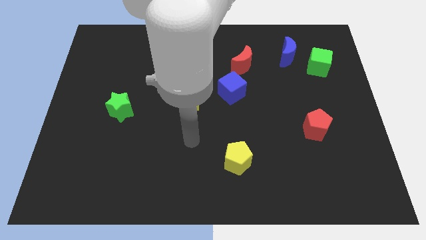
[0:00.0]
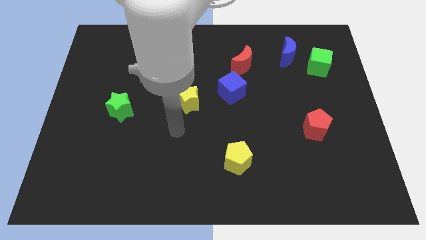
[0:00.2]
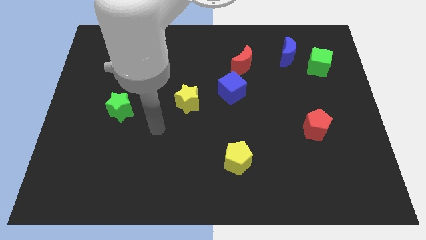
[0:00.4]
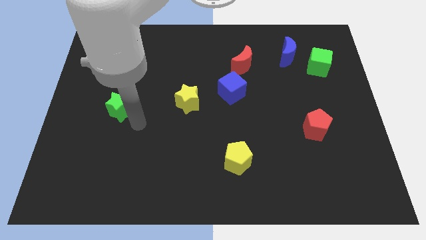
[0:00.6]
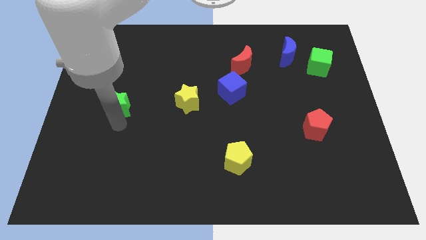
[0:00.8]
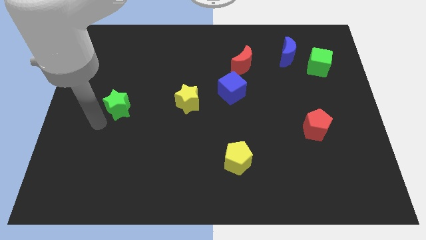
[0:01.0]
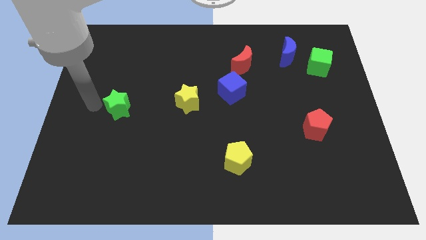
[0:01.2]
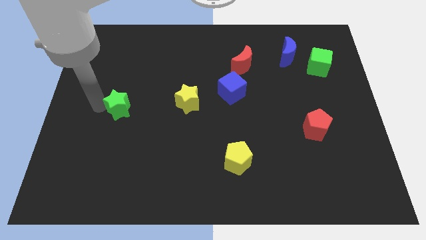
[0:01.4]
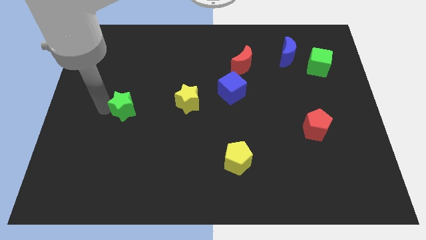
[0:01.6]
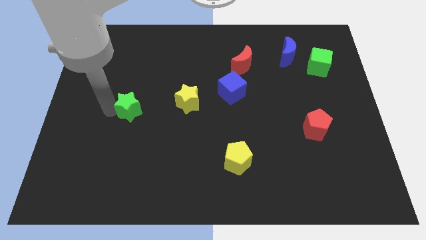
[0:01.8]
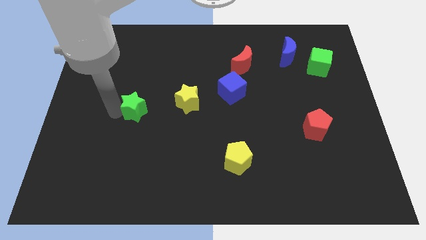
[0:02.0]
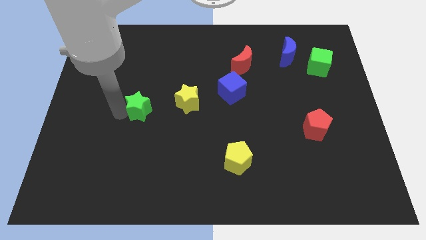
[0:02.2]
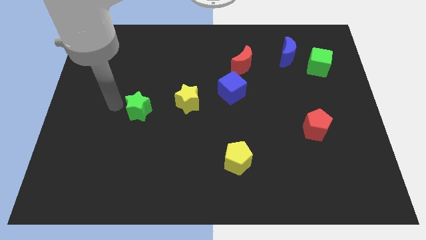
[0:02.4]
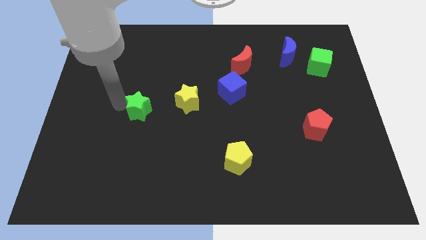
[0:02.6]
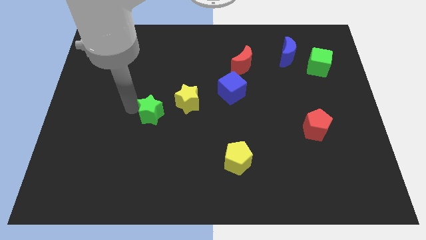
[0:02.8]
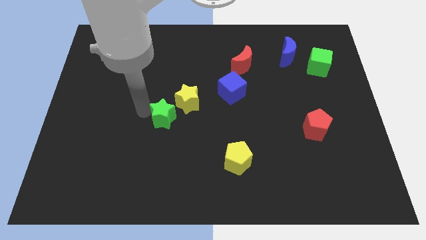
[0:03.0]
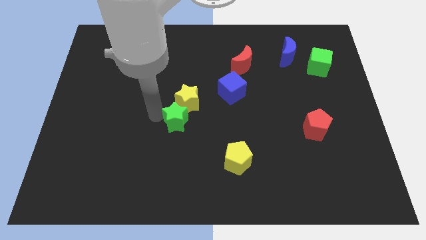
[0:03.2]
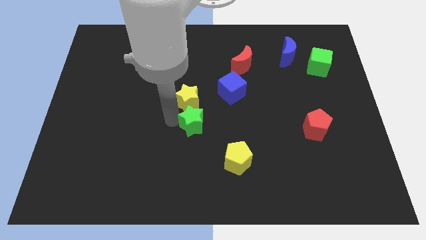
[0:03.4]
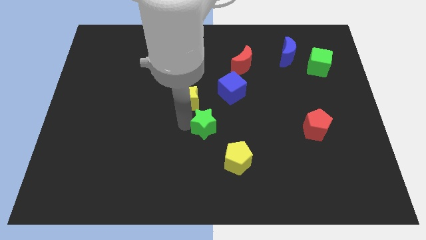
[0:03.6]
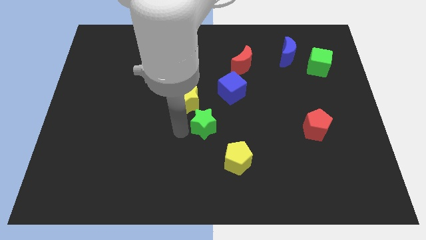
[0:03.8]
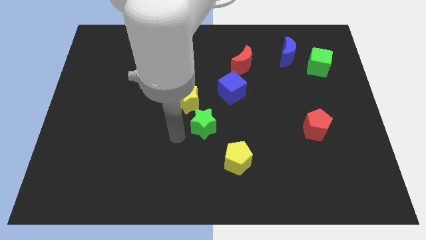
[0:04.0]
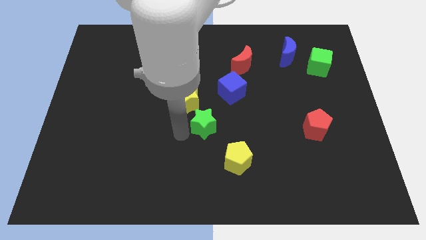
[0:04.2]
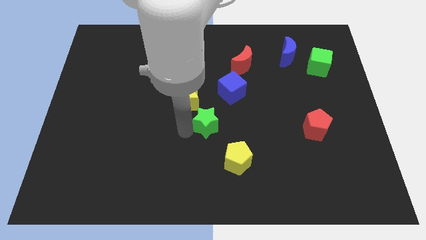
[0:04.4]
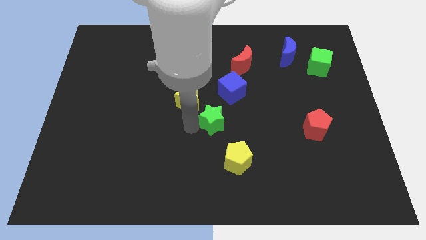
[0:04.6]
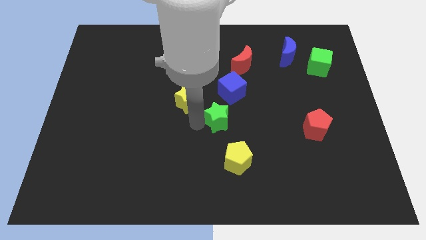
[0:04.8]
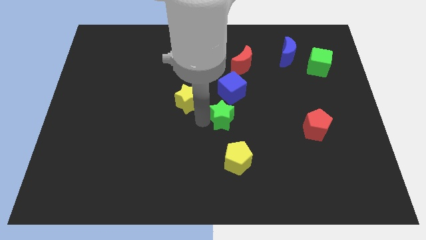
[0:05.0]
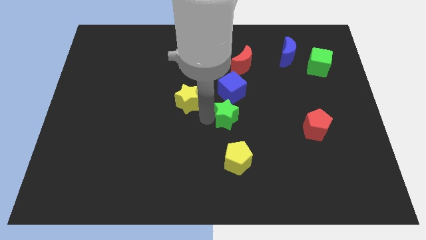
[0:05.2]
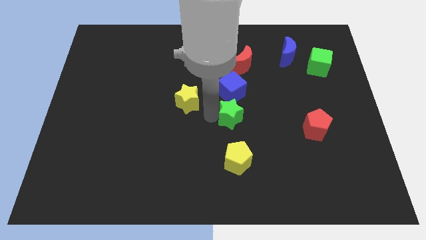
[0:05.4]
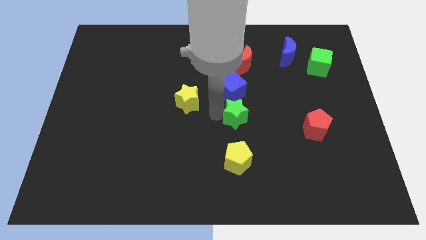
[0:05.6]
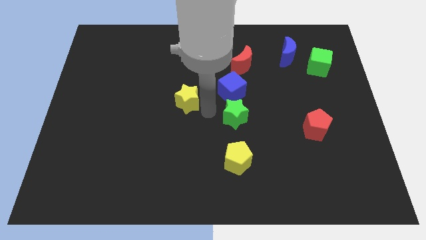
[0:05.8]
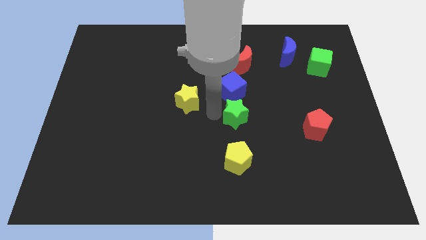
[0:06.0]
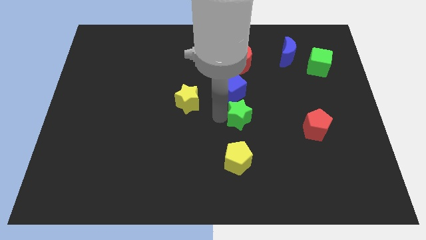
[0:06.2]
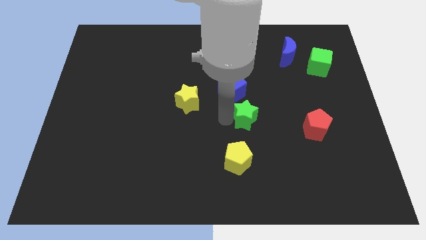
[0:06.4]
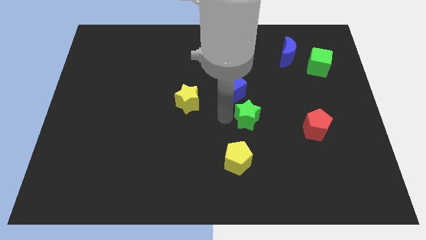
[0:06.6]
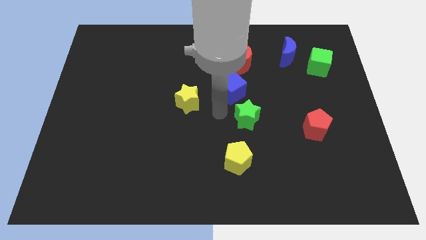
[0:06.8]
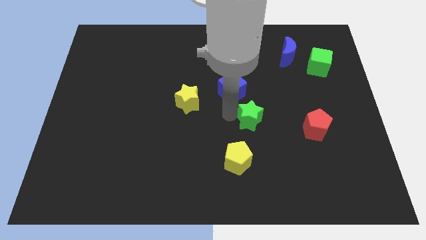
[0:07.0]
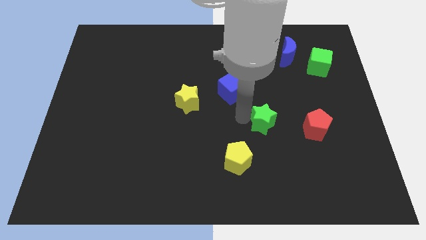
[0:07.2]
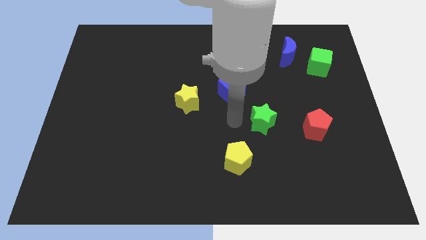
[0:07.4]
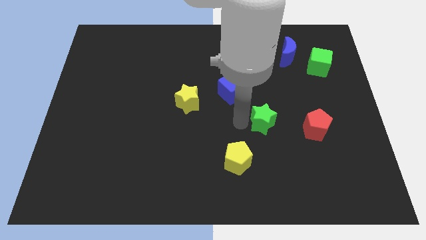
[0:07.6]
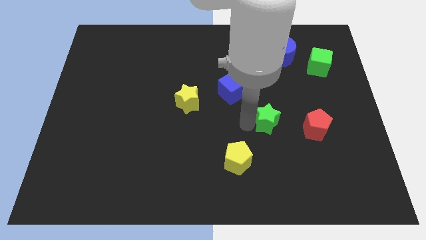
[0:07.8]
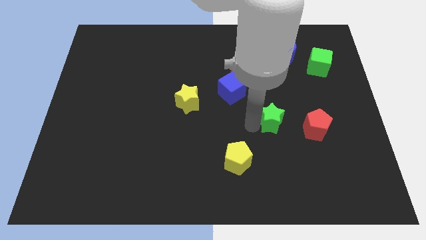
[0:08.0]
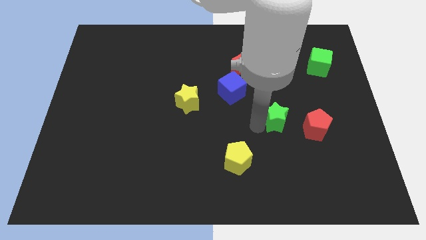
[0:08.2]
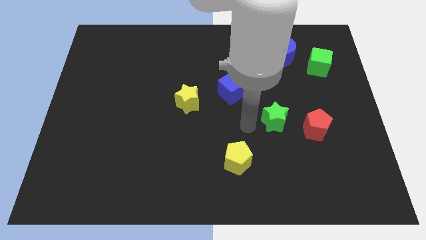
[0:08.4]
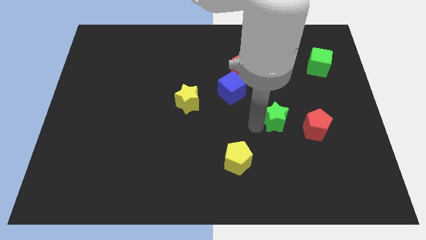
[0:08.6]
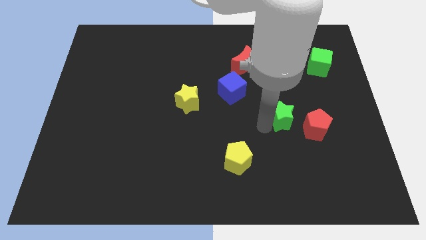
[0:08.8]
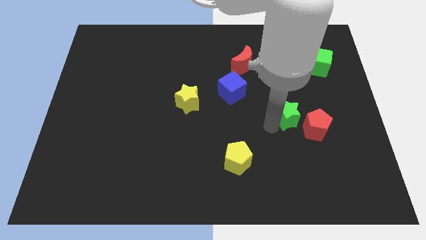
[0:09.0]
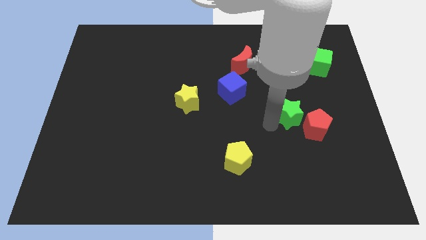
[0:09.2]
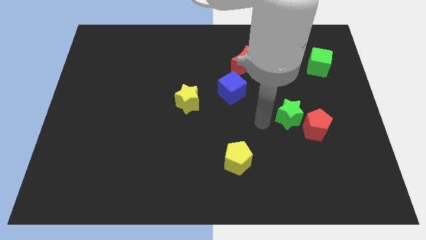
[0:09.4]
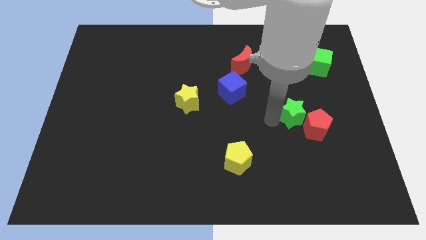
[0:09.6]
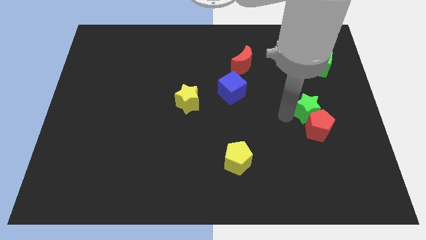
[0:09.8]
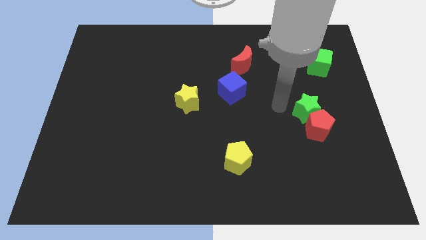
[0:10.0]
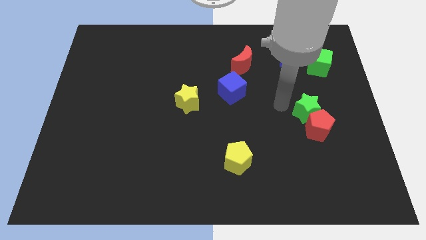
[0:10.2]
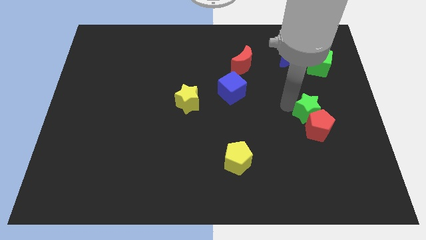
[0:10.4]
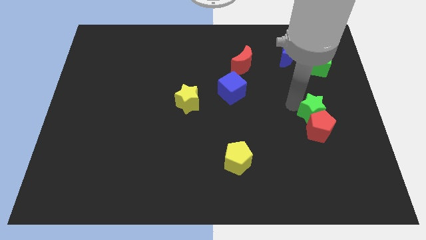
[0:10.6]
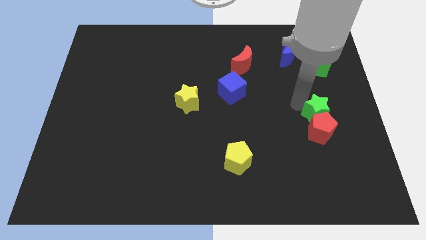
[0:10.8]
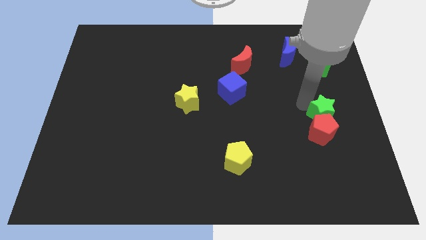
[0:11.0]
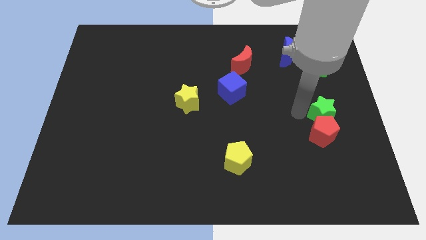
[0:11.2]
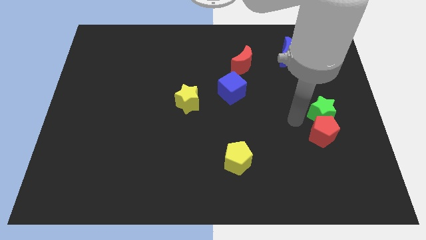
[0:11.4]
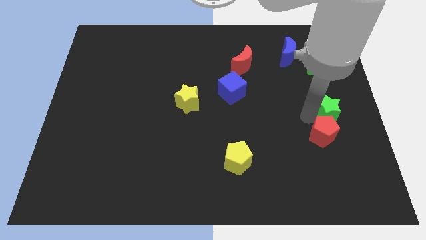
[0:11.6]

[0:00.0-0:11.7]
put the green star to the center right

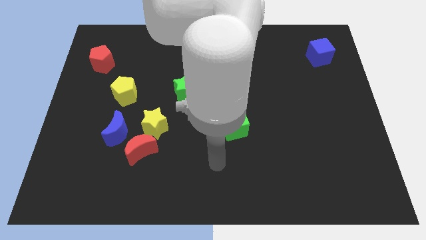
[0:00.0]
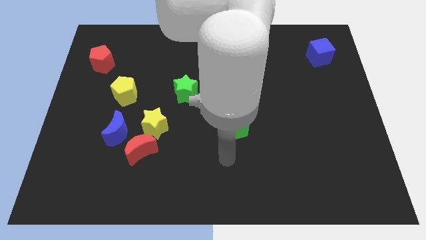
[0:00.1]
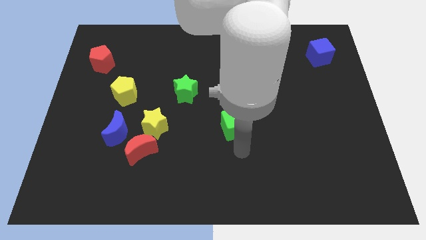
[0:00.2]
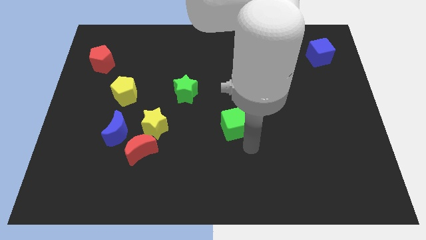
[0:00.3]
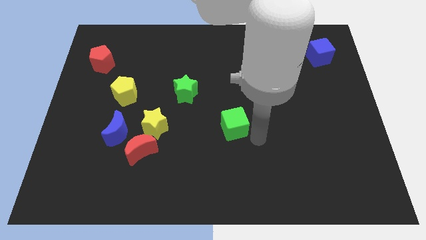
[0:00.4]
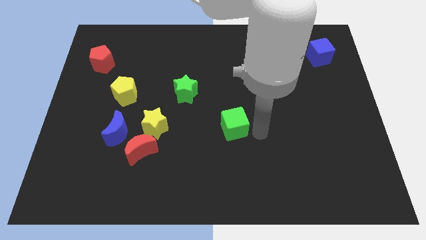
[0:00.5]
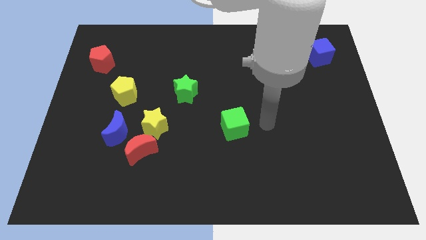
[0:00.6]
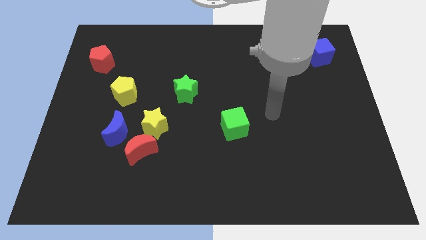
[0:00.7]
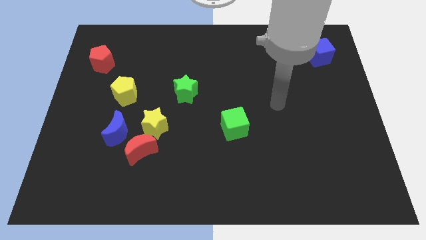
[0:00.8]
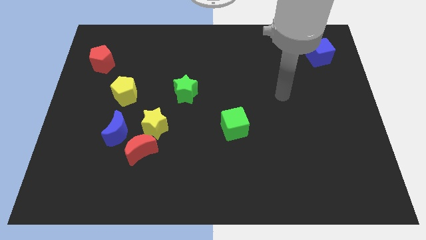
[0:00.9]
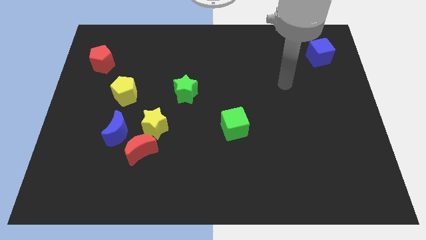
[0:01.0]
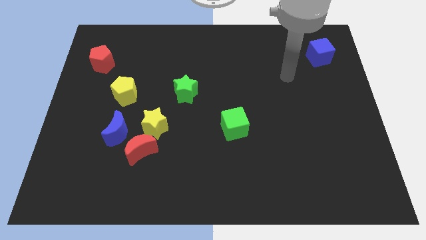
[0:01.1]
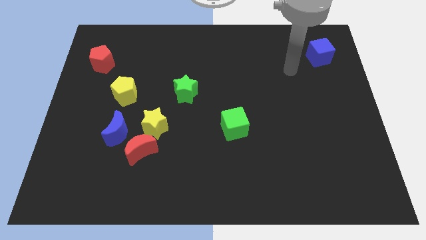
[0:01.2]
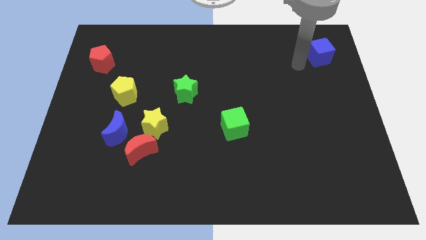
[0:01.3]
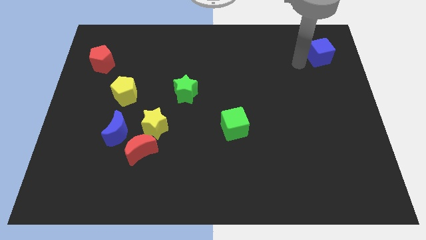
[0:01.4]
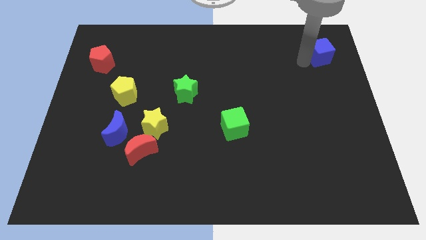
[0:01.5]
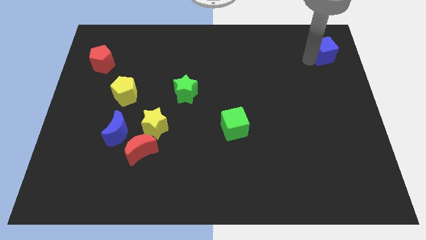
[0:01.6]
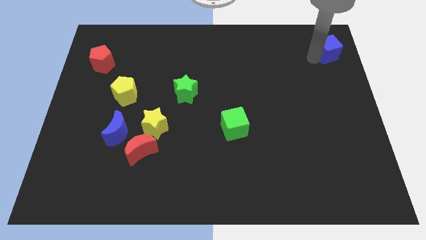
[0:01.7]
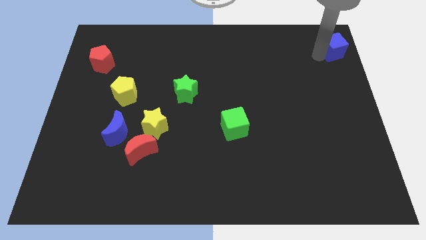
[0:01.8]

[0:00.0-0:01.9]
slide the blue cube to the upper right corner

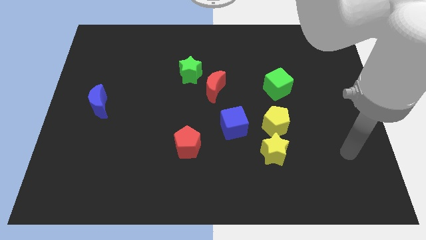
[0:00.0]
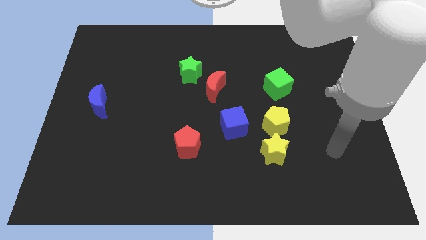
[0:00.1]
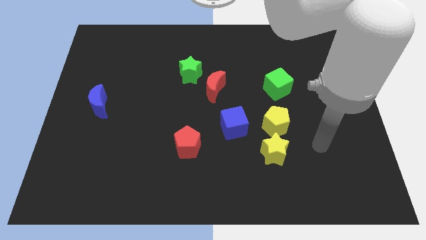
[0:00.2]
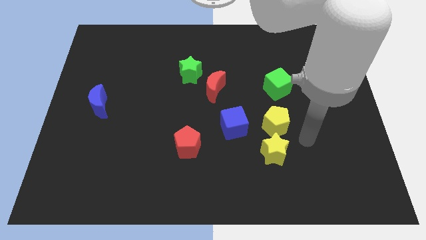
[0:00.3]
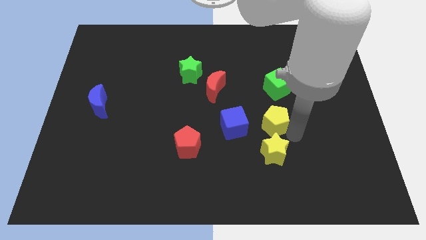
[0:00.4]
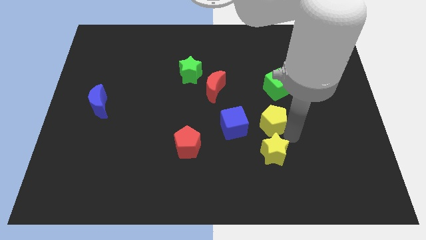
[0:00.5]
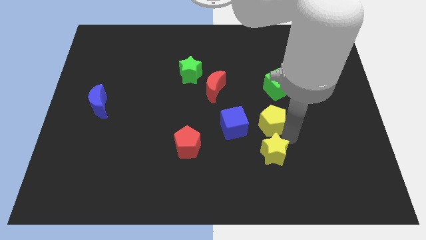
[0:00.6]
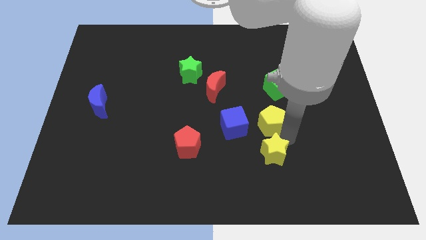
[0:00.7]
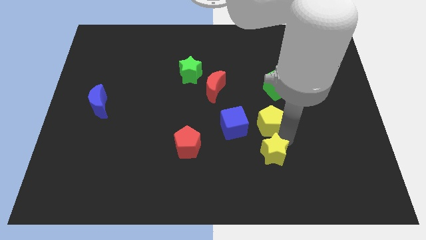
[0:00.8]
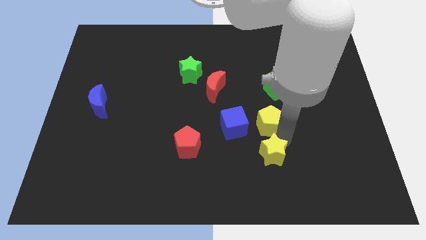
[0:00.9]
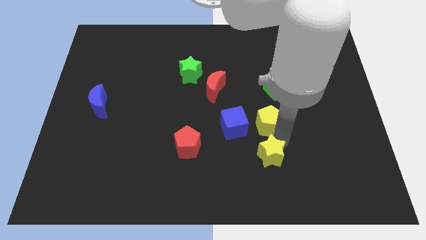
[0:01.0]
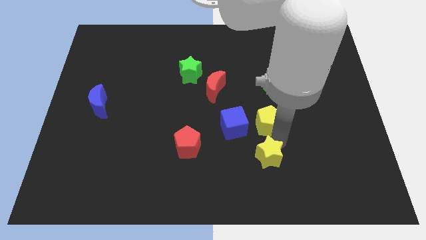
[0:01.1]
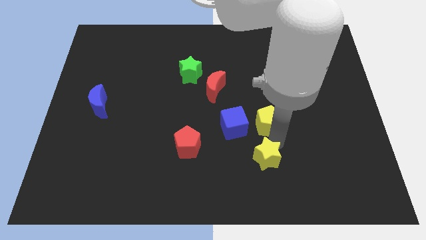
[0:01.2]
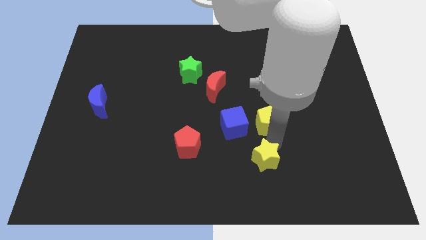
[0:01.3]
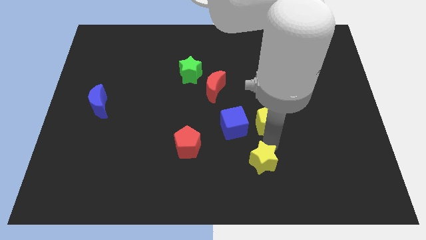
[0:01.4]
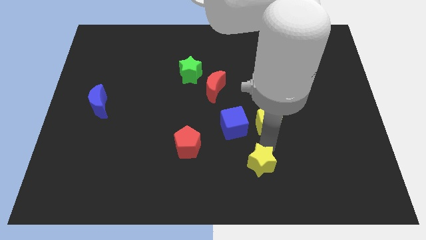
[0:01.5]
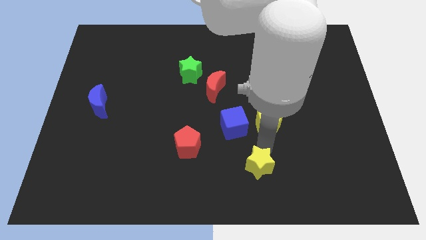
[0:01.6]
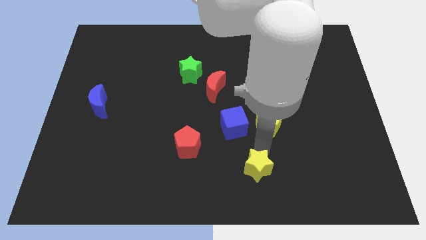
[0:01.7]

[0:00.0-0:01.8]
move the yellow star to the bottom side
